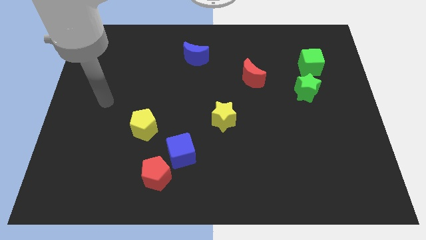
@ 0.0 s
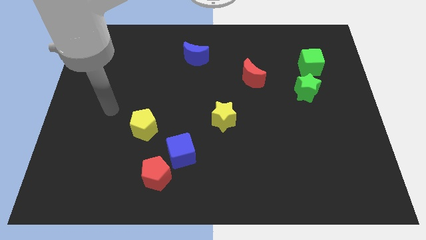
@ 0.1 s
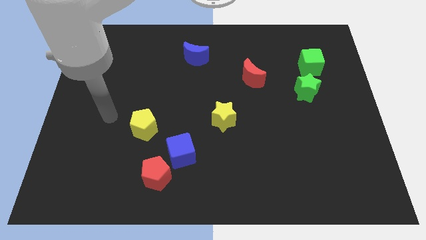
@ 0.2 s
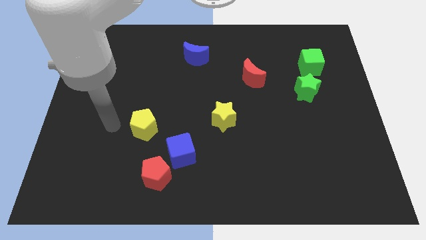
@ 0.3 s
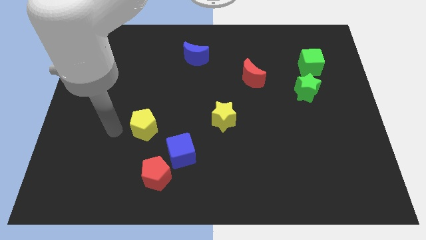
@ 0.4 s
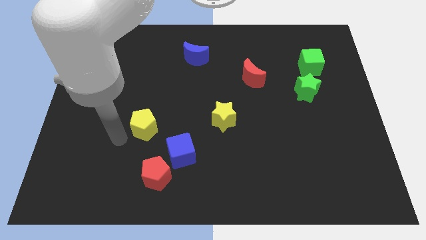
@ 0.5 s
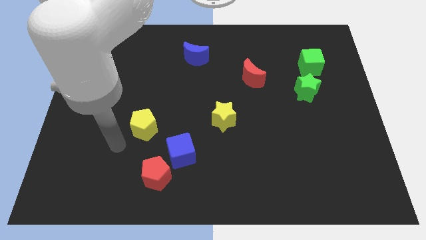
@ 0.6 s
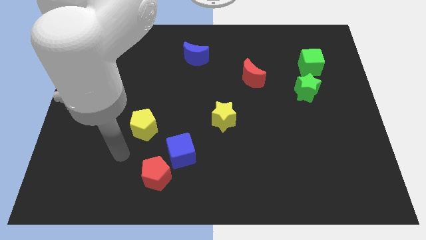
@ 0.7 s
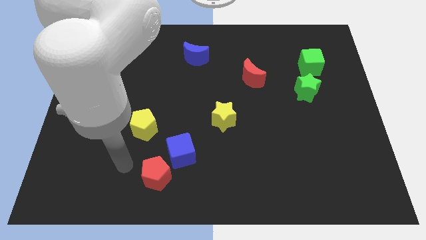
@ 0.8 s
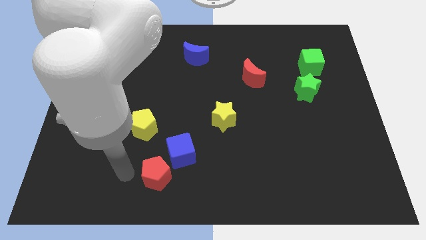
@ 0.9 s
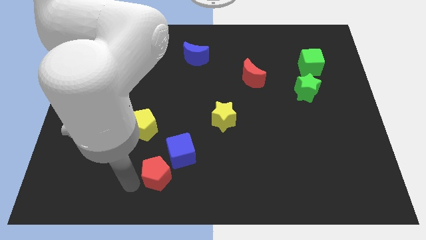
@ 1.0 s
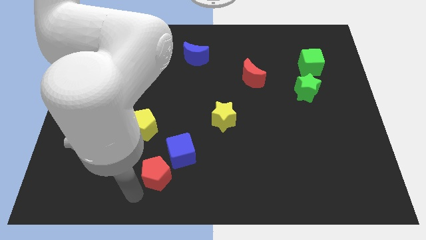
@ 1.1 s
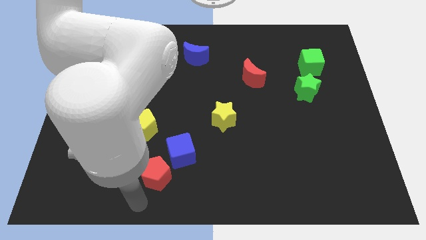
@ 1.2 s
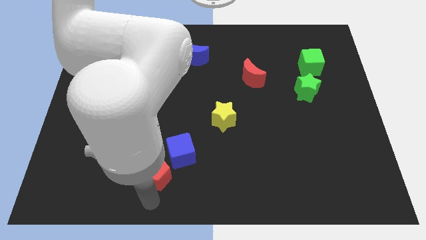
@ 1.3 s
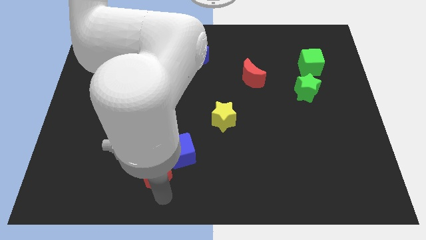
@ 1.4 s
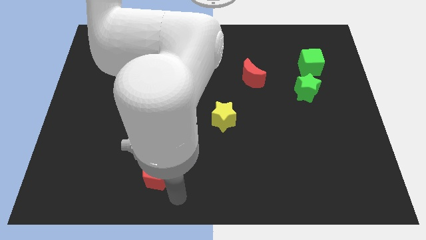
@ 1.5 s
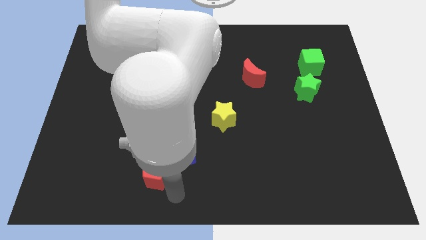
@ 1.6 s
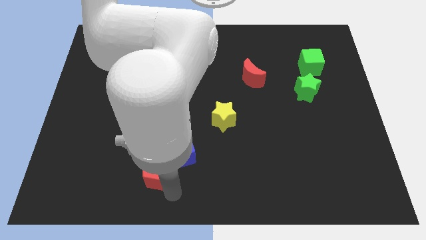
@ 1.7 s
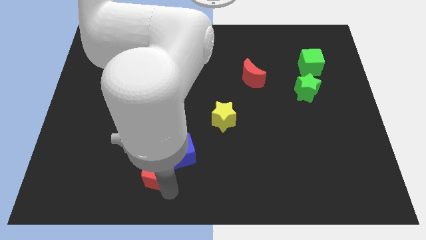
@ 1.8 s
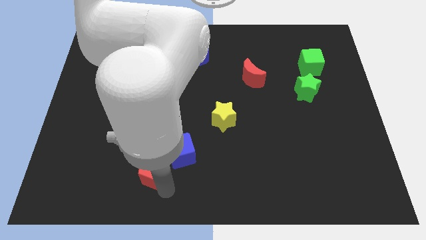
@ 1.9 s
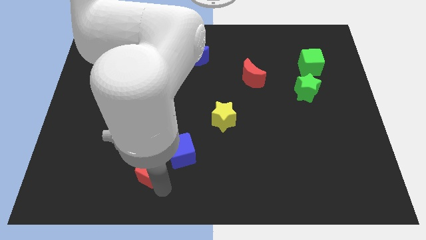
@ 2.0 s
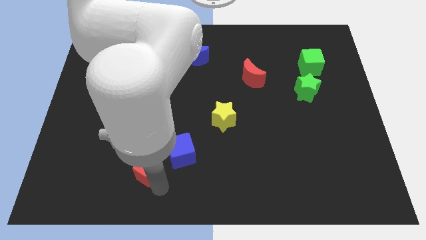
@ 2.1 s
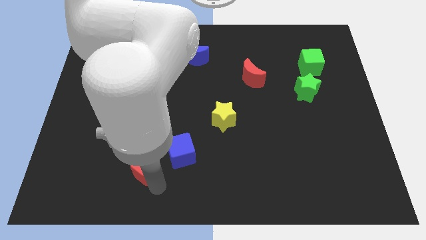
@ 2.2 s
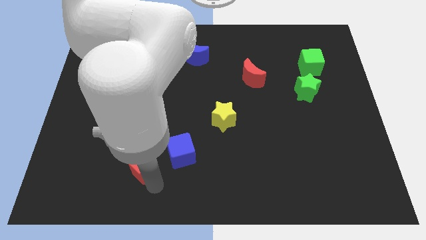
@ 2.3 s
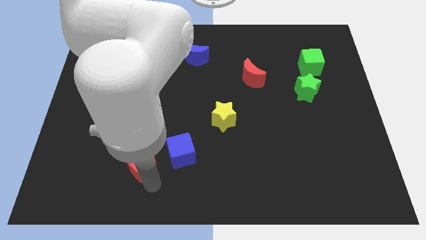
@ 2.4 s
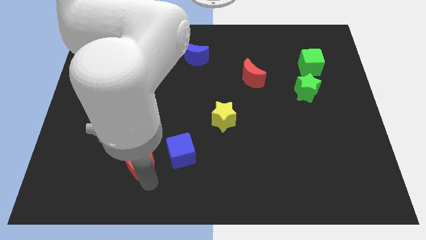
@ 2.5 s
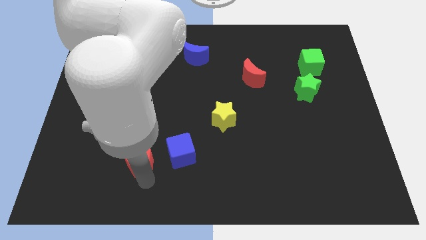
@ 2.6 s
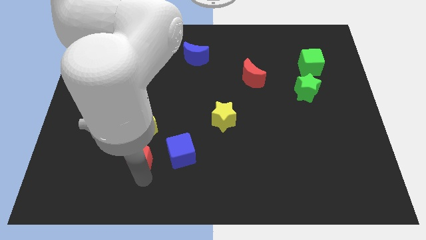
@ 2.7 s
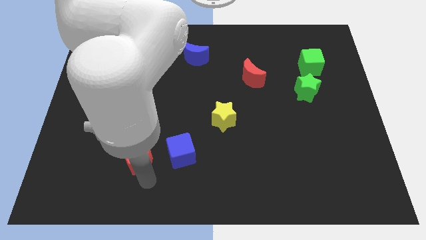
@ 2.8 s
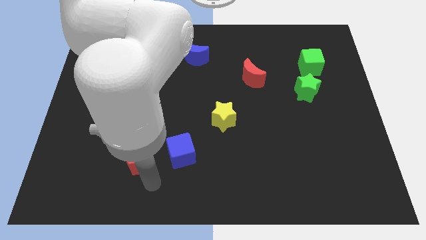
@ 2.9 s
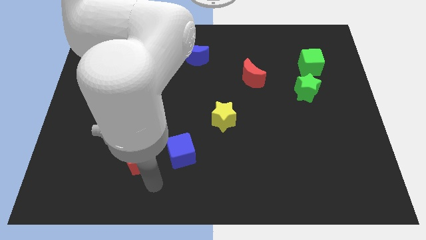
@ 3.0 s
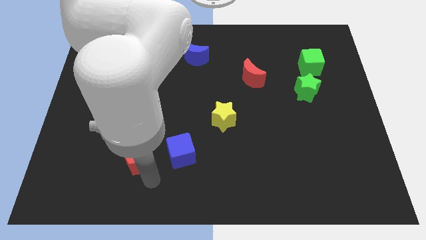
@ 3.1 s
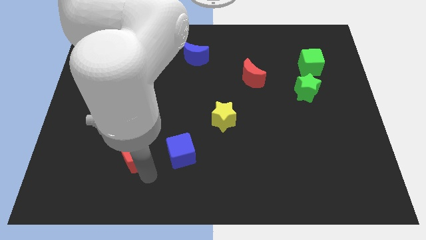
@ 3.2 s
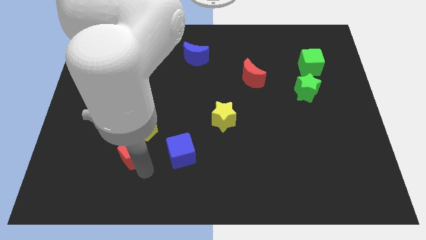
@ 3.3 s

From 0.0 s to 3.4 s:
slightly move the red pentagon upwards and then to the left

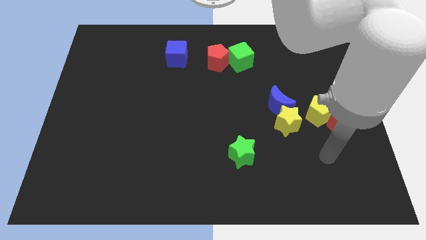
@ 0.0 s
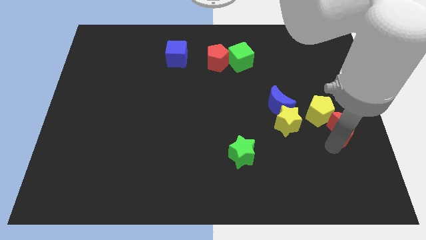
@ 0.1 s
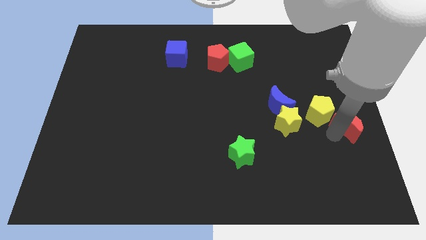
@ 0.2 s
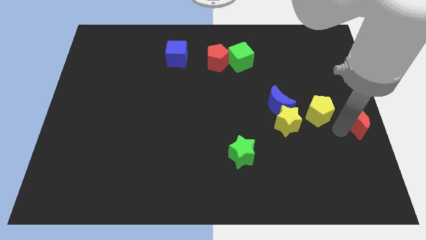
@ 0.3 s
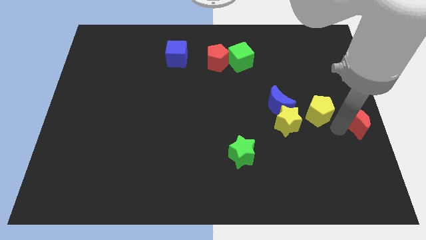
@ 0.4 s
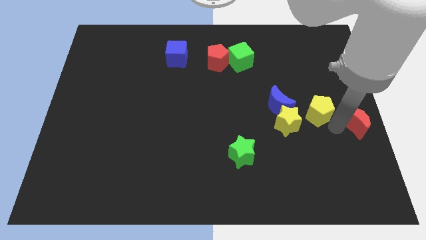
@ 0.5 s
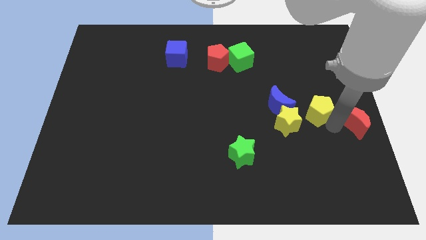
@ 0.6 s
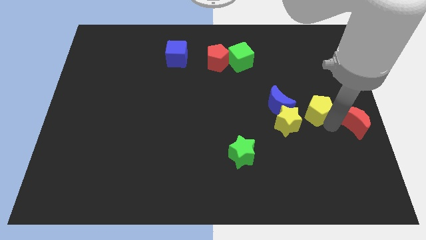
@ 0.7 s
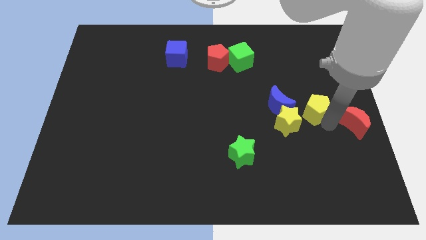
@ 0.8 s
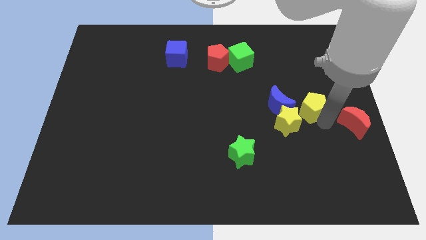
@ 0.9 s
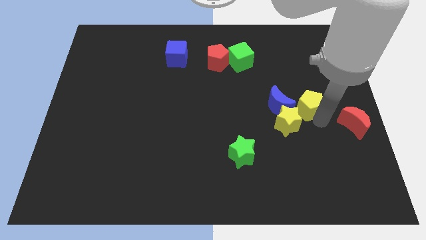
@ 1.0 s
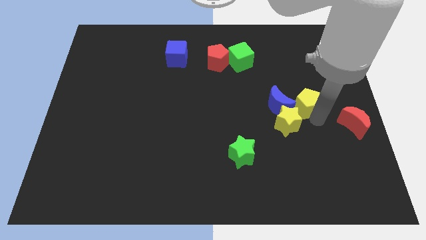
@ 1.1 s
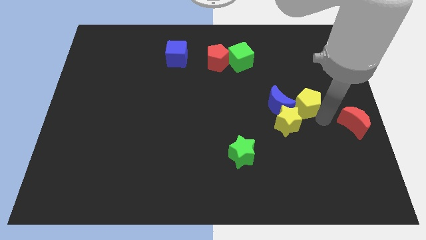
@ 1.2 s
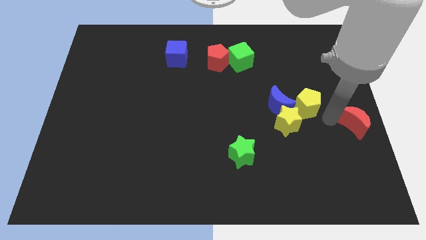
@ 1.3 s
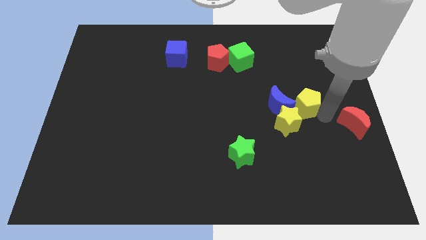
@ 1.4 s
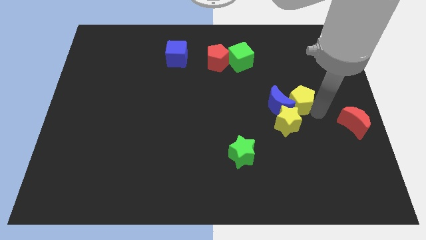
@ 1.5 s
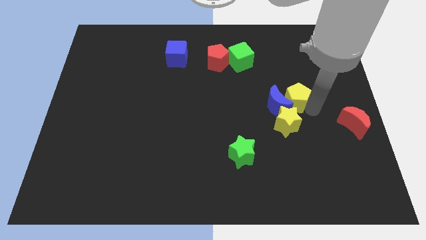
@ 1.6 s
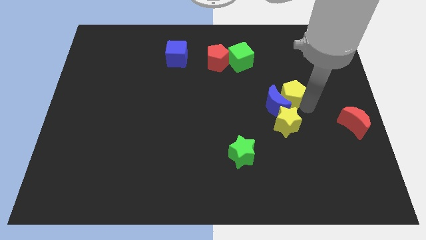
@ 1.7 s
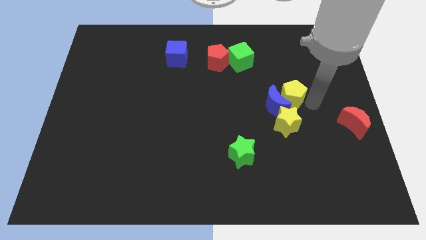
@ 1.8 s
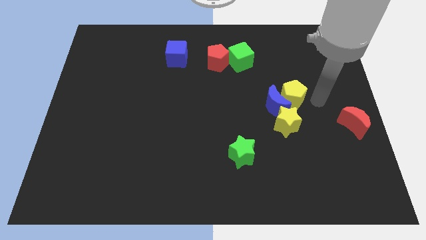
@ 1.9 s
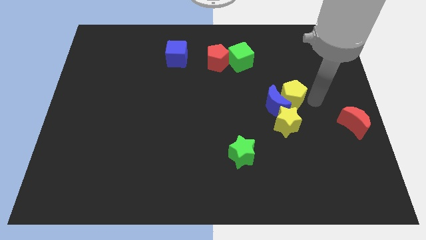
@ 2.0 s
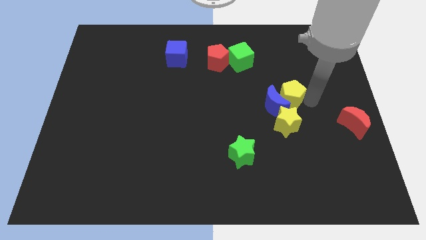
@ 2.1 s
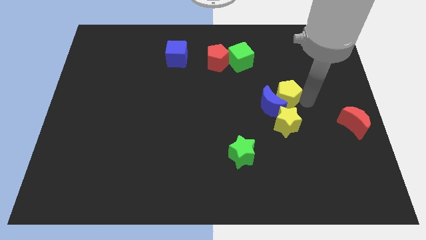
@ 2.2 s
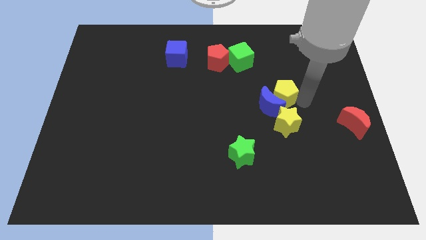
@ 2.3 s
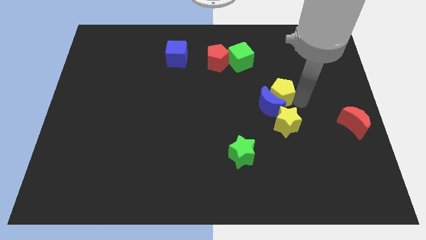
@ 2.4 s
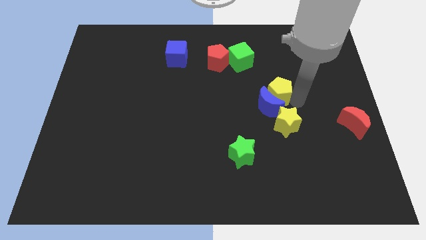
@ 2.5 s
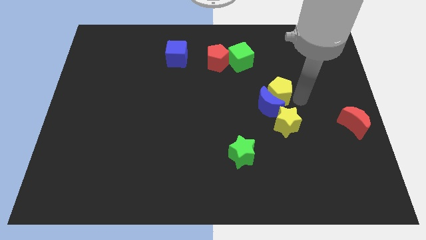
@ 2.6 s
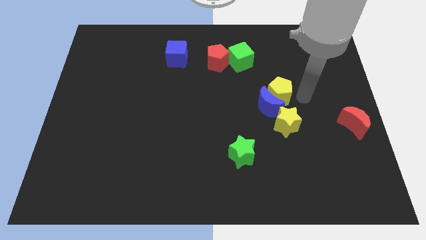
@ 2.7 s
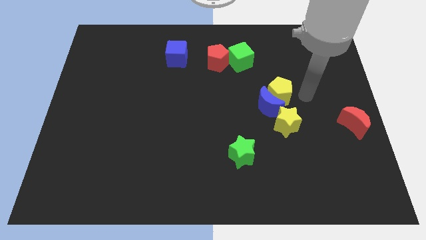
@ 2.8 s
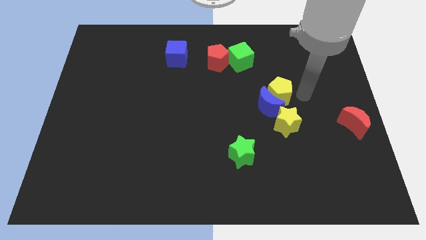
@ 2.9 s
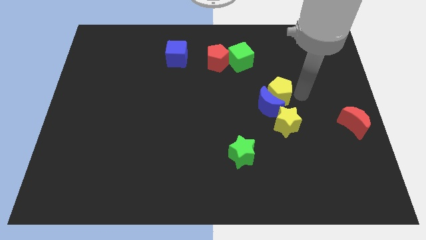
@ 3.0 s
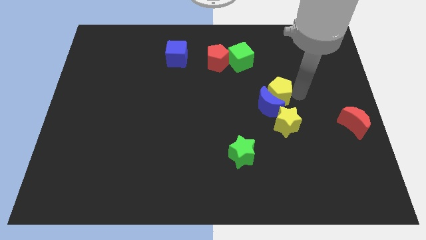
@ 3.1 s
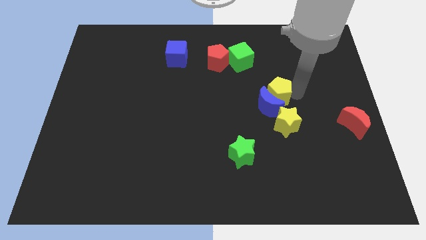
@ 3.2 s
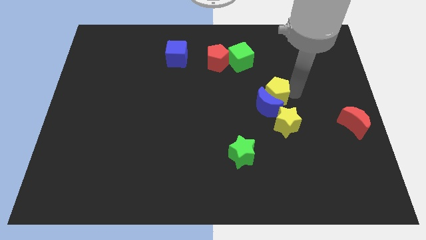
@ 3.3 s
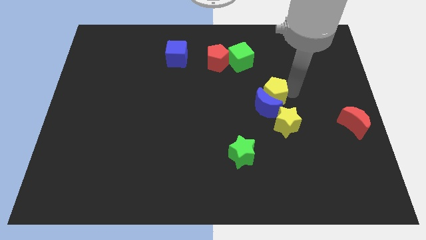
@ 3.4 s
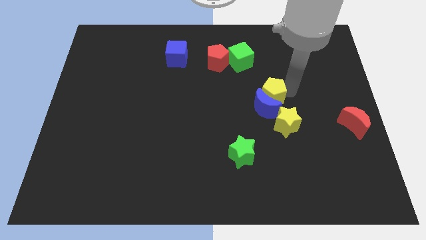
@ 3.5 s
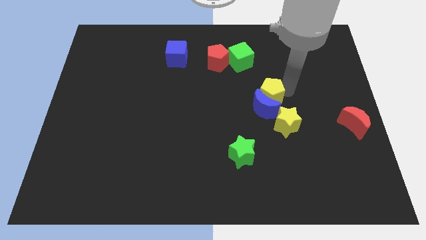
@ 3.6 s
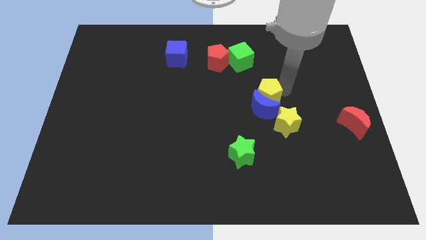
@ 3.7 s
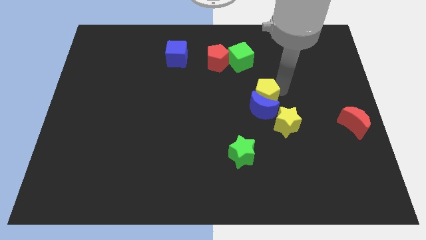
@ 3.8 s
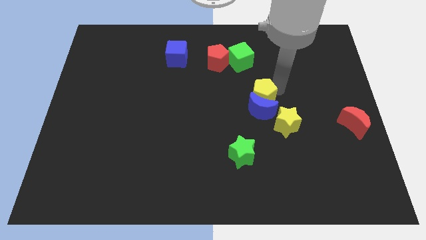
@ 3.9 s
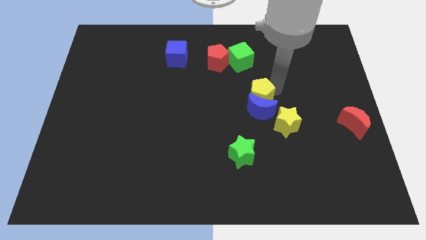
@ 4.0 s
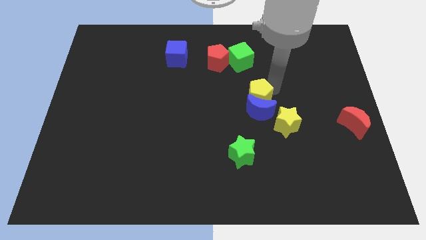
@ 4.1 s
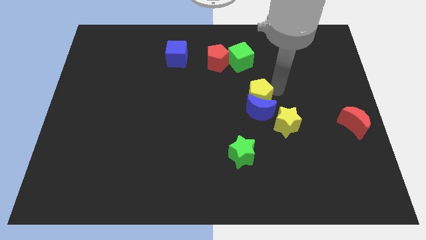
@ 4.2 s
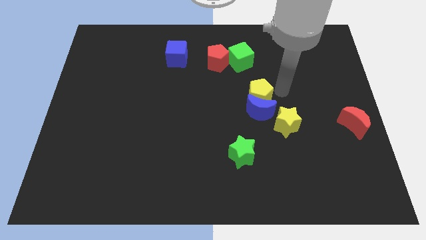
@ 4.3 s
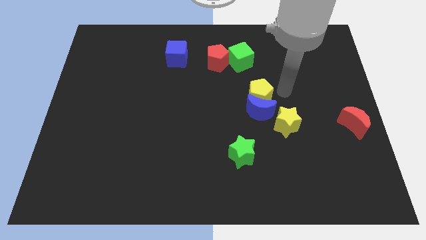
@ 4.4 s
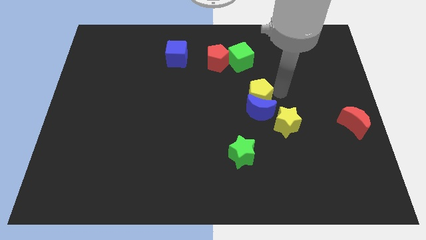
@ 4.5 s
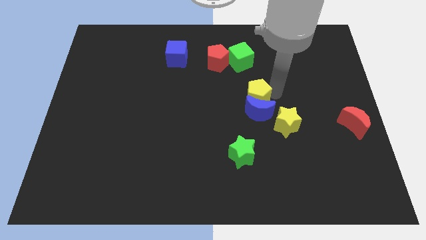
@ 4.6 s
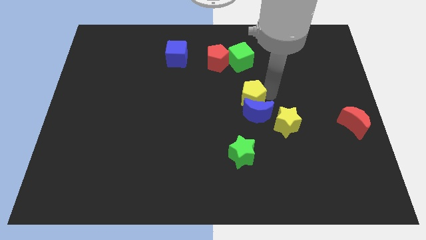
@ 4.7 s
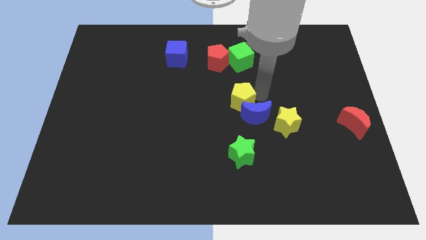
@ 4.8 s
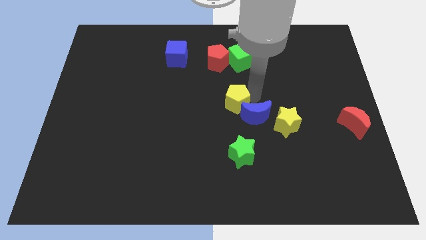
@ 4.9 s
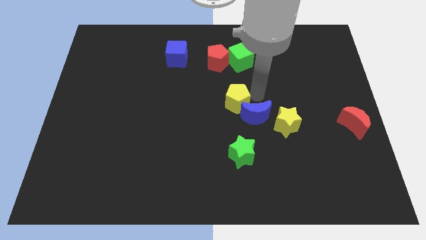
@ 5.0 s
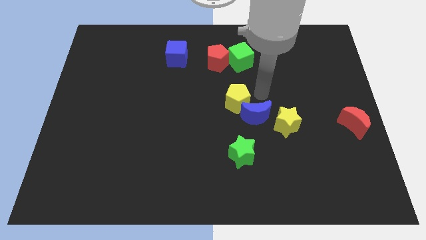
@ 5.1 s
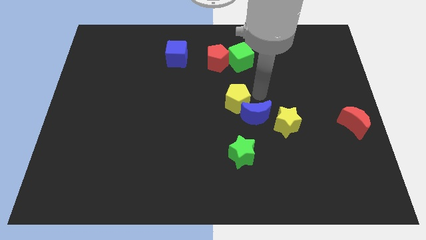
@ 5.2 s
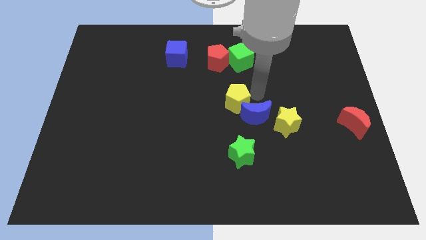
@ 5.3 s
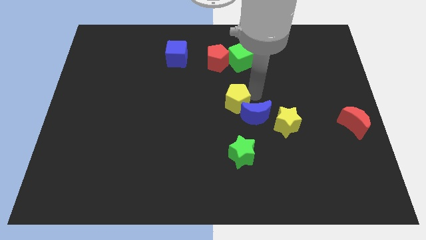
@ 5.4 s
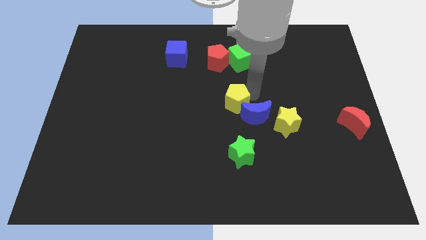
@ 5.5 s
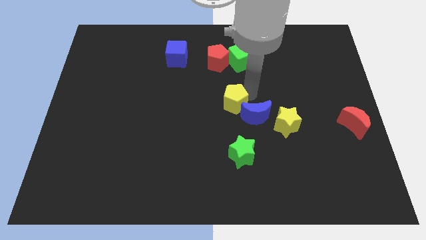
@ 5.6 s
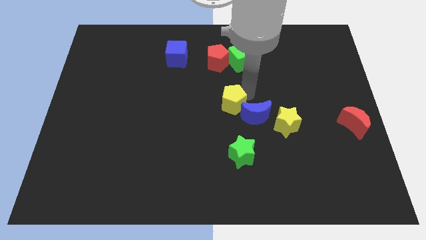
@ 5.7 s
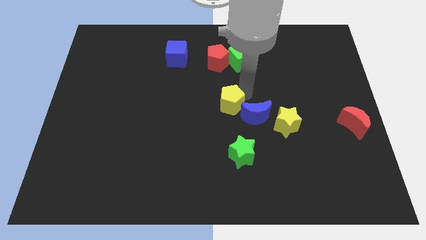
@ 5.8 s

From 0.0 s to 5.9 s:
move the yellow pentagon to the left
